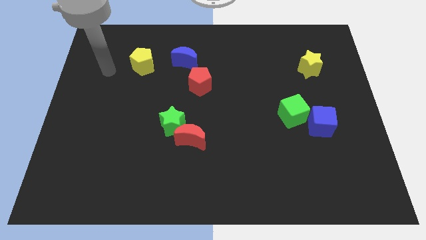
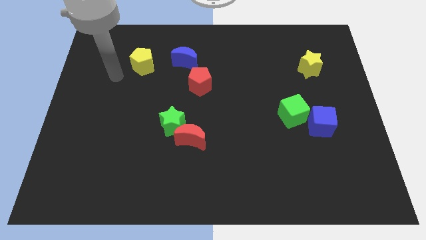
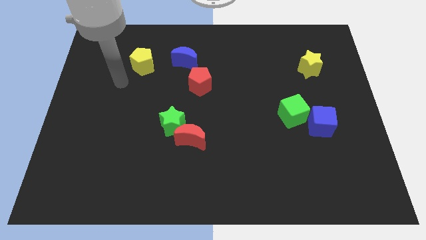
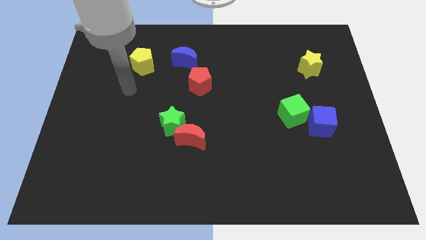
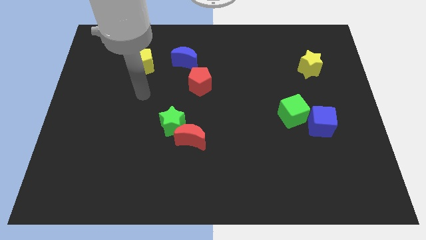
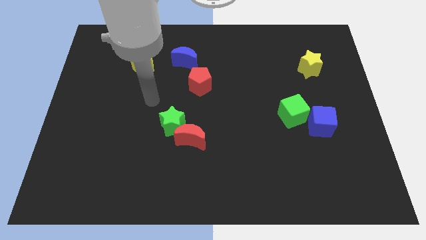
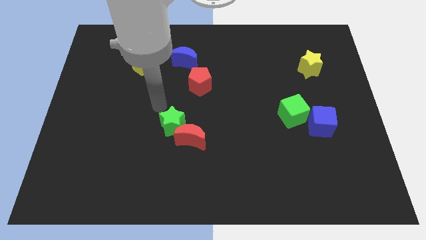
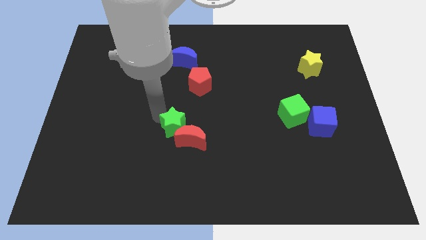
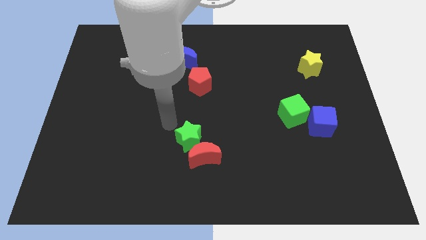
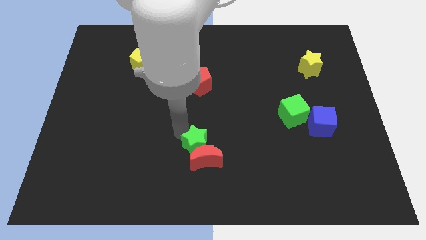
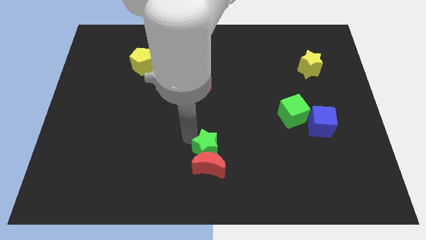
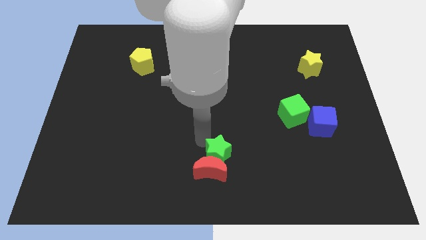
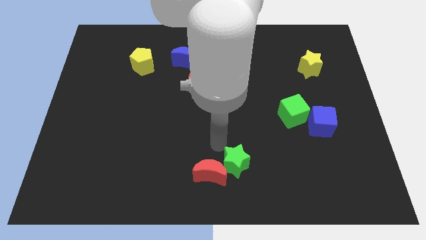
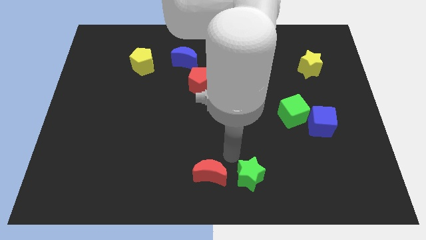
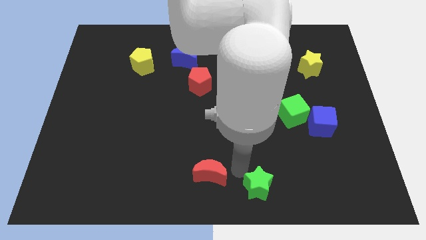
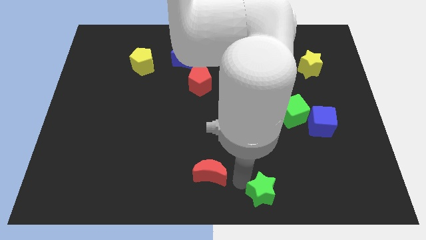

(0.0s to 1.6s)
move the red moon away from the green star

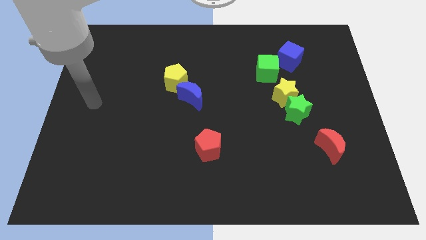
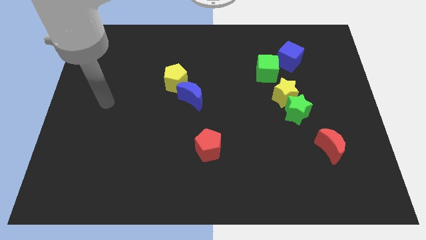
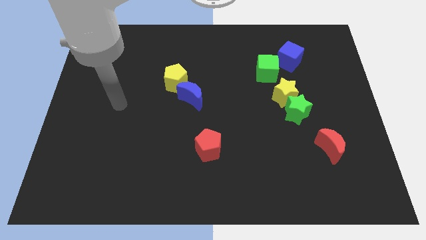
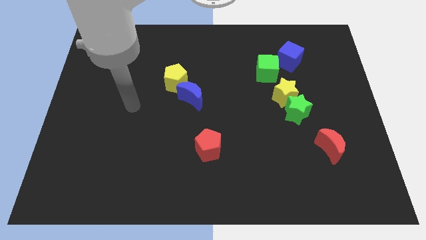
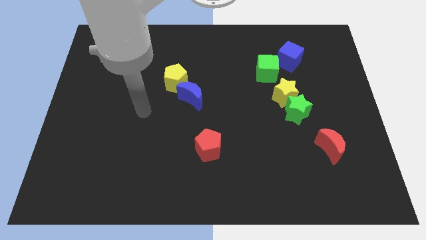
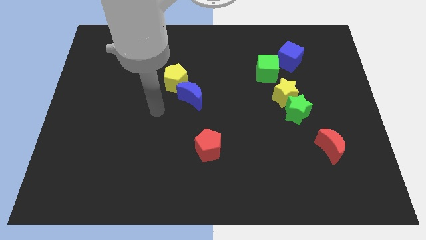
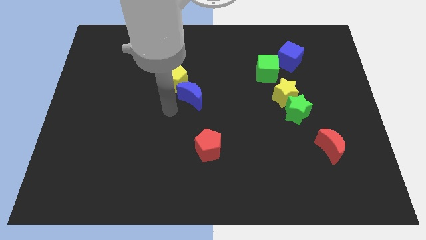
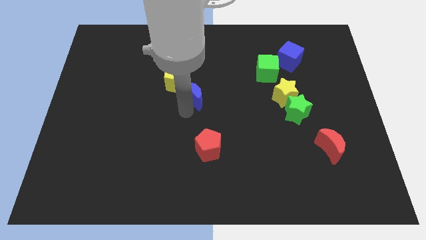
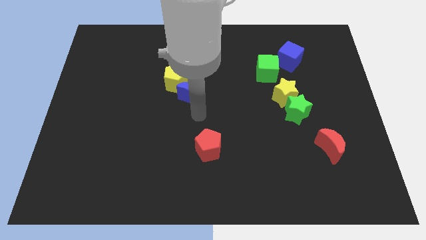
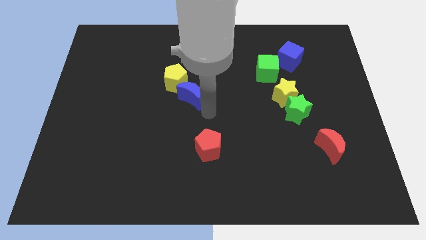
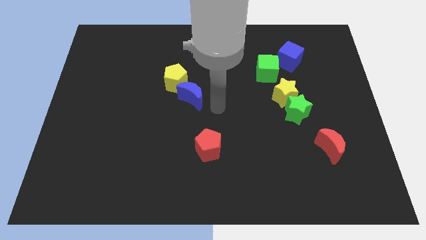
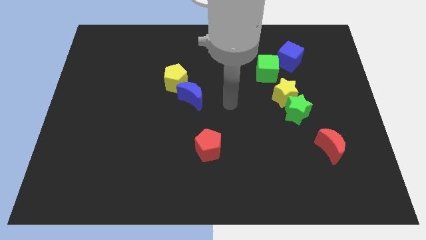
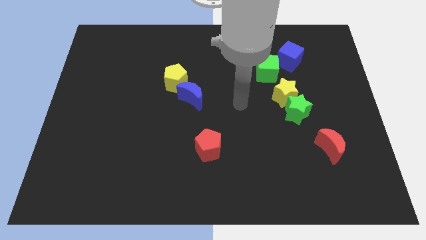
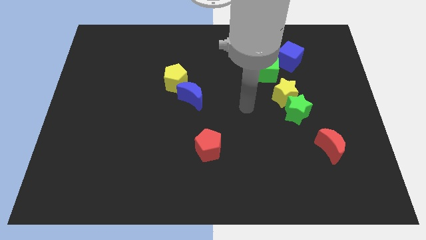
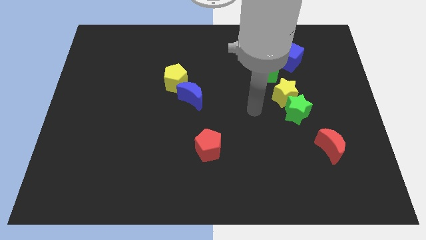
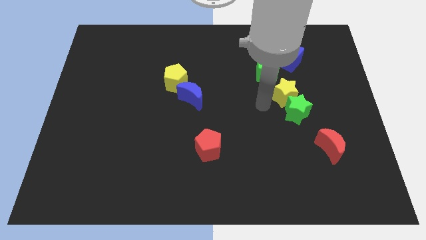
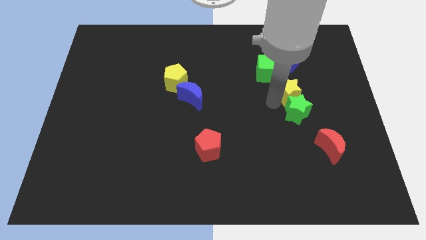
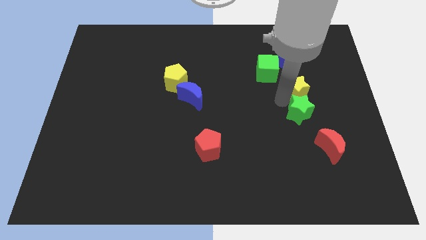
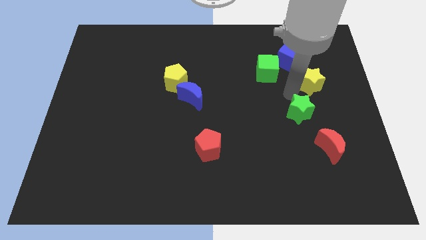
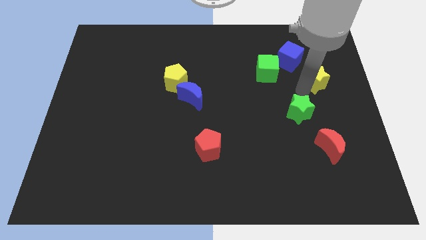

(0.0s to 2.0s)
separate the green star from the yellow star

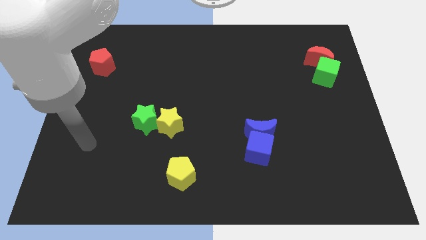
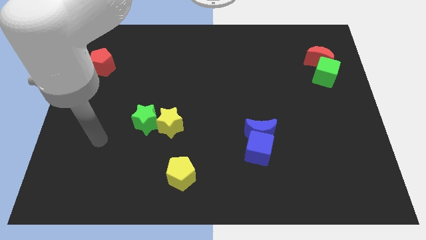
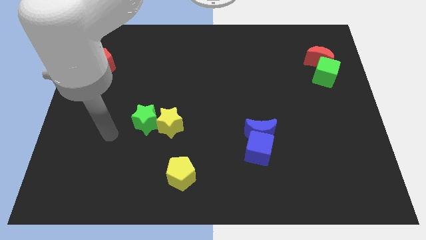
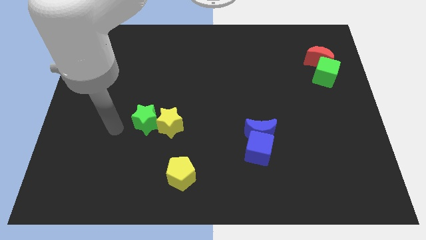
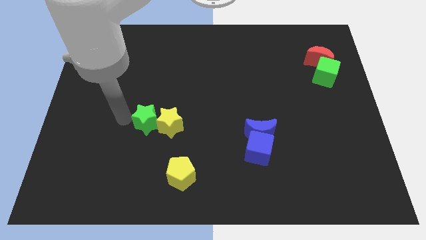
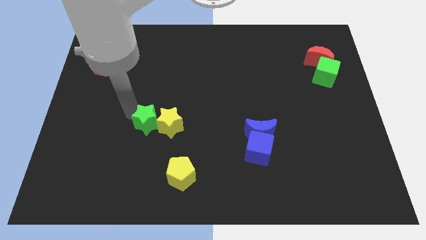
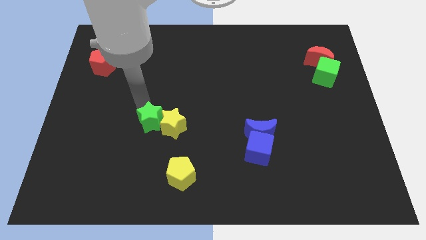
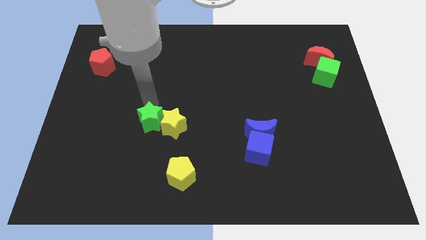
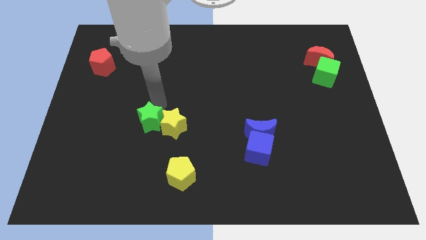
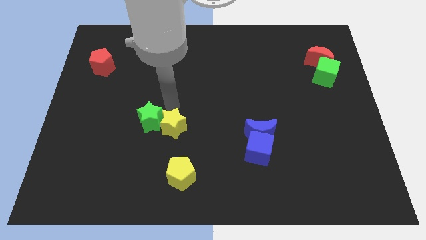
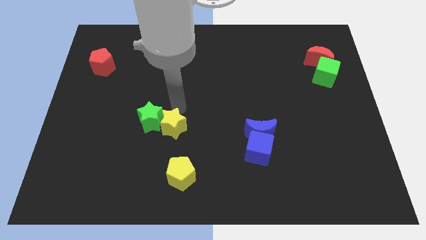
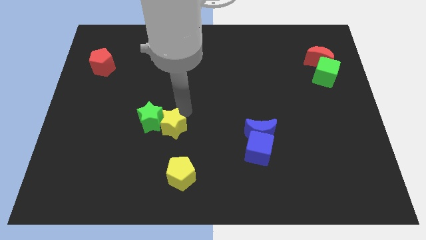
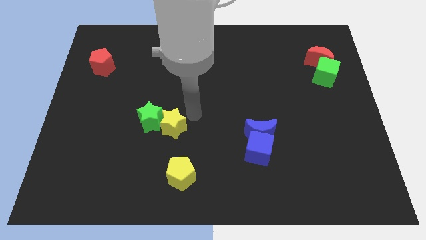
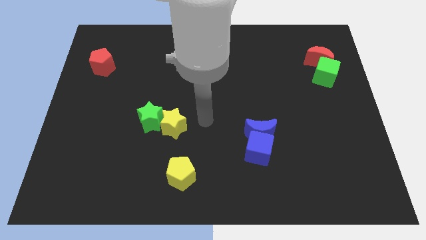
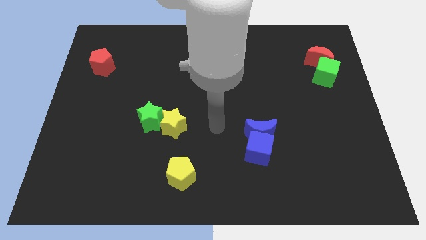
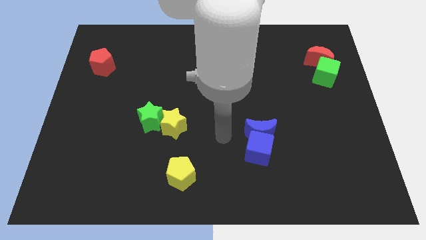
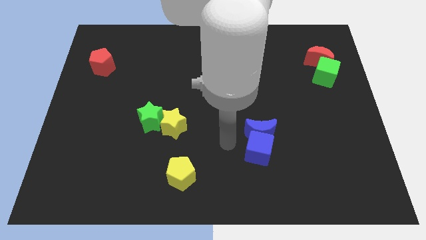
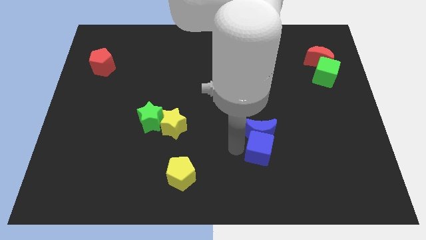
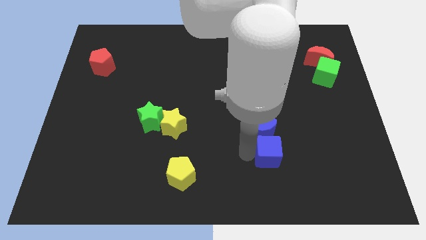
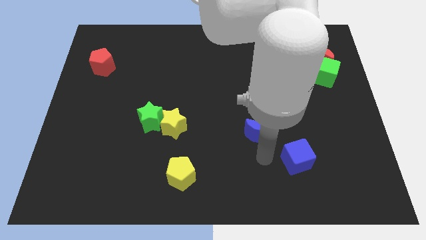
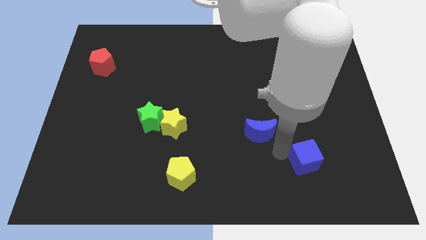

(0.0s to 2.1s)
separate the blue moon from the blue cube

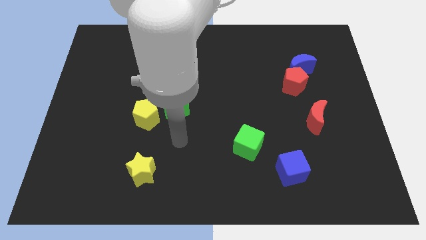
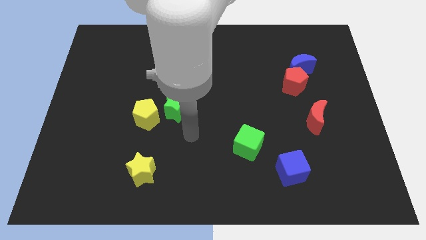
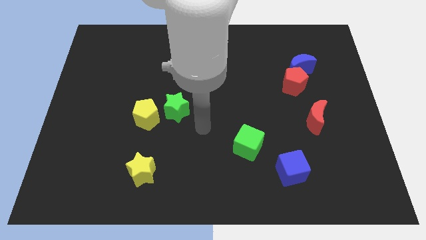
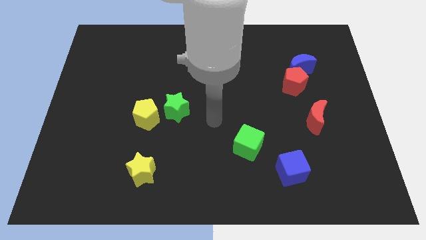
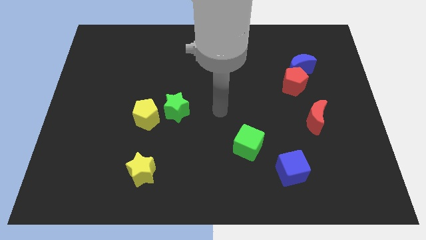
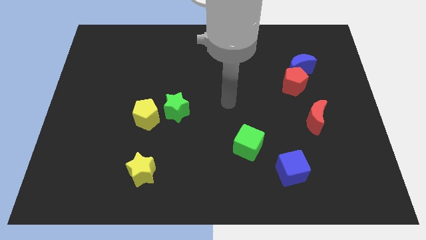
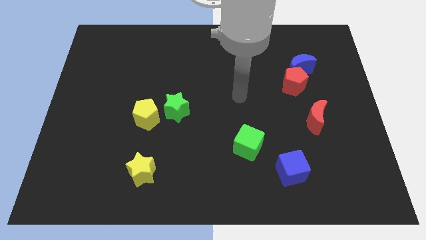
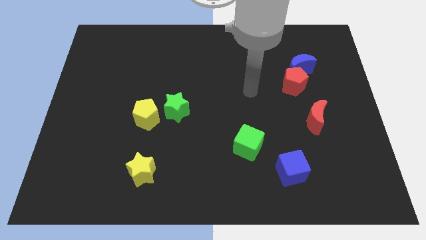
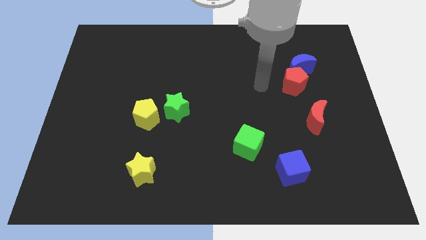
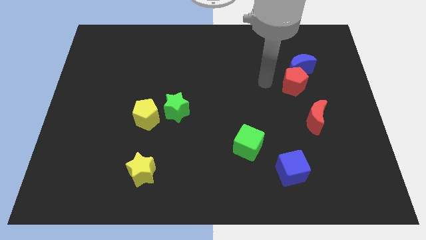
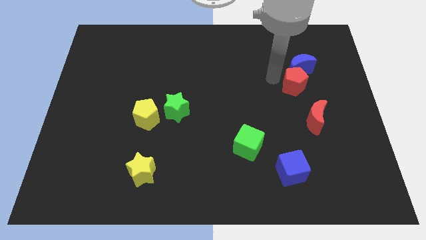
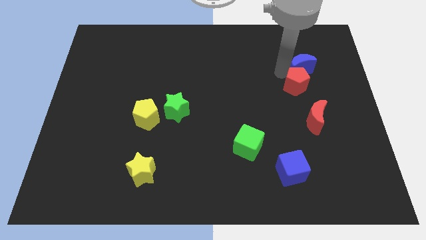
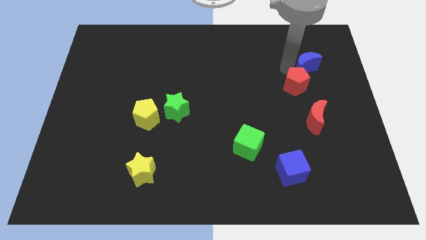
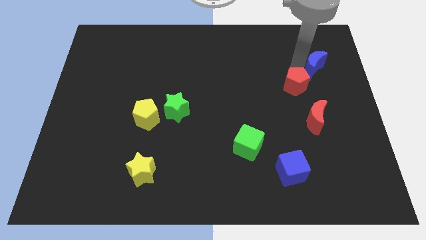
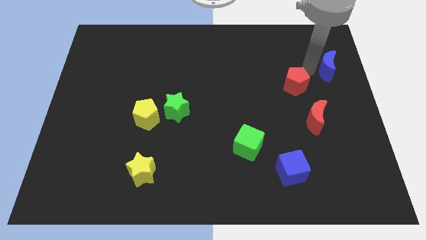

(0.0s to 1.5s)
separate the red pentagon from the blue moon

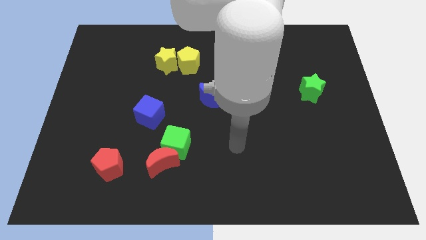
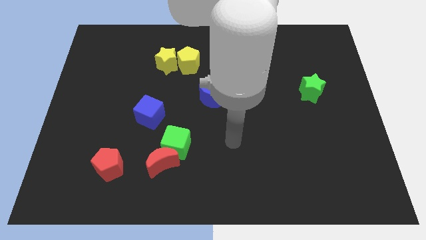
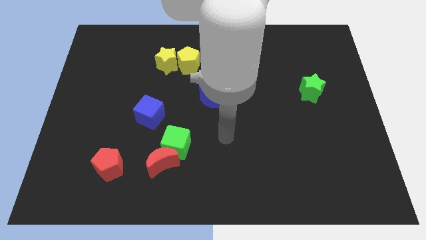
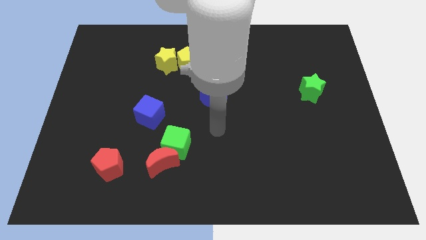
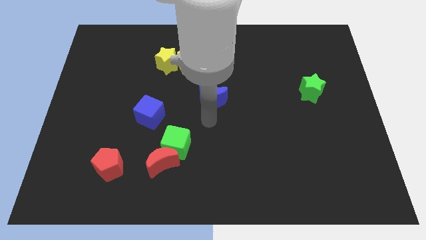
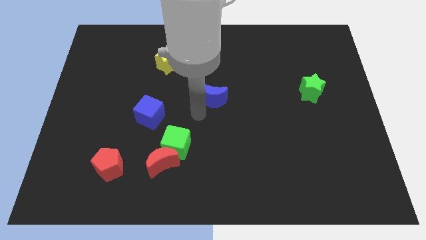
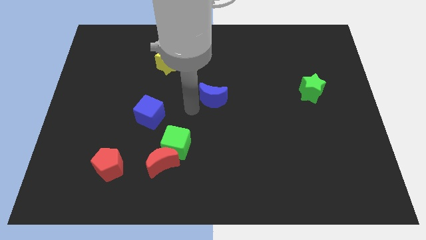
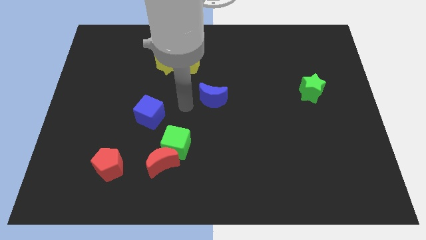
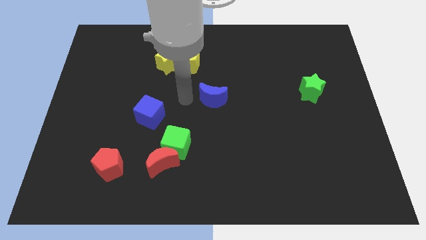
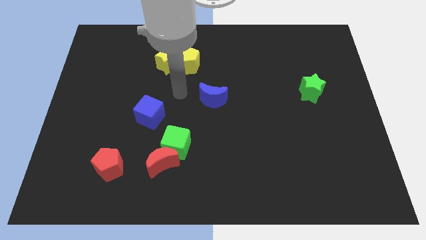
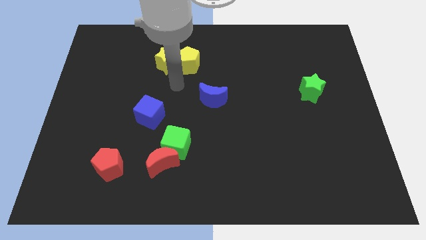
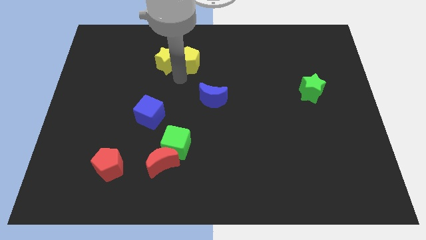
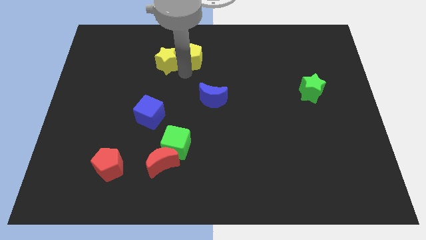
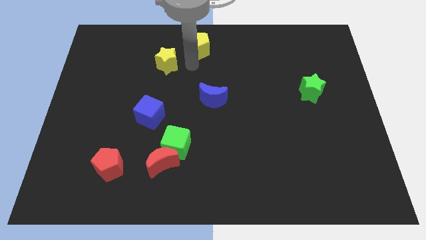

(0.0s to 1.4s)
move the yellow star away from the yellow pentagon

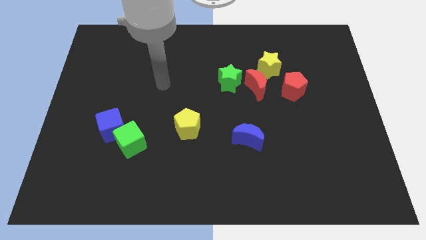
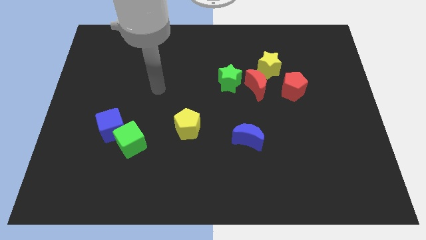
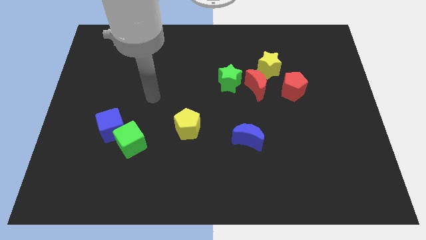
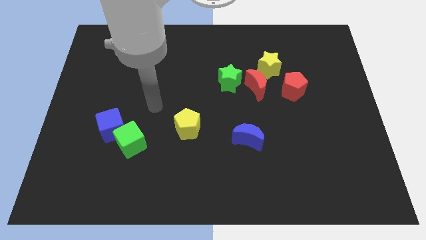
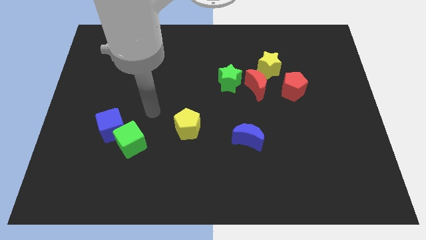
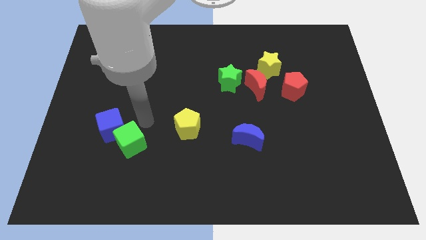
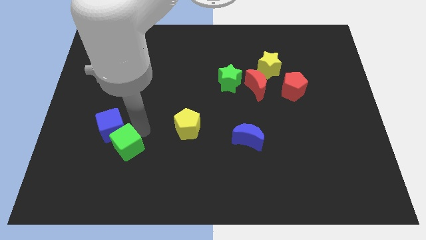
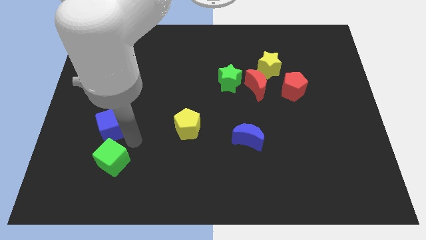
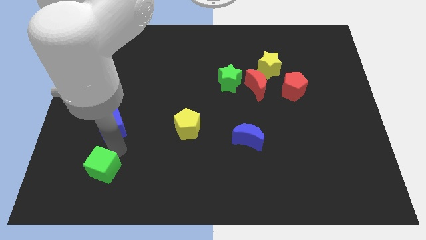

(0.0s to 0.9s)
move the blue cube away from the green cube
